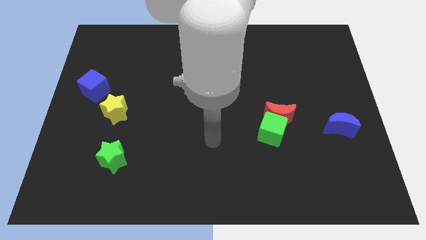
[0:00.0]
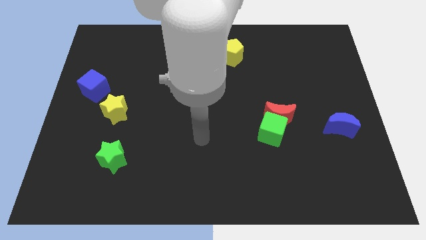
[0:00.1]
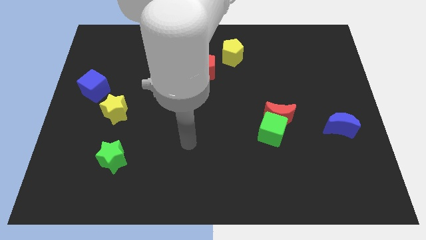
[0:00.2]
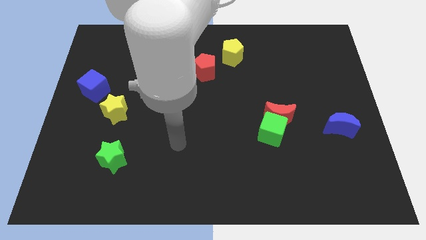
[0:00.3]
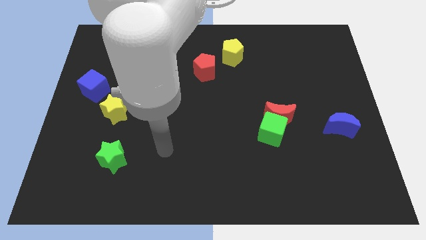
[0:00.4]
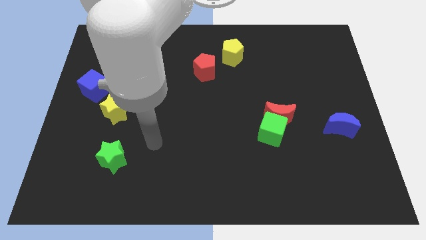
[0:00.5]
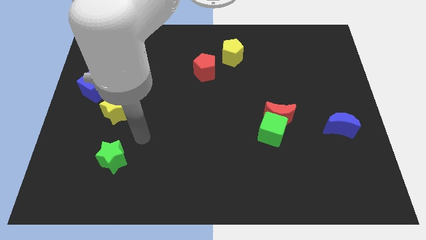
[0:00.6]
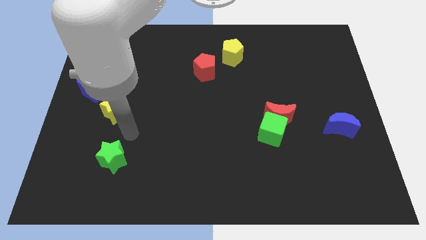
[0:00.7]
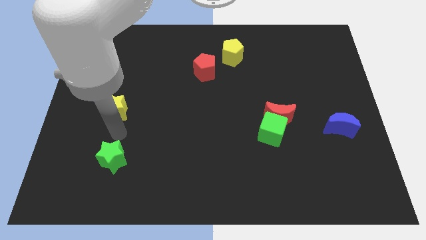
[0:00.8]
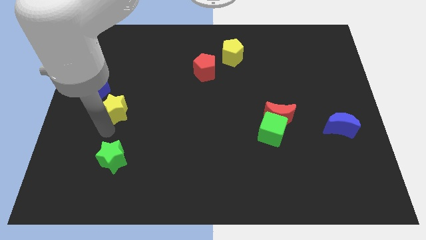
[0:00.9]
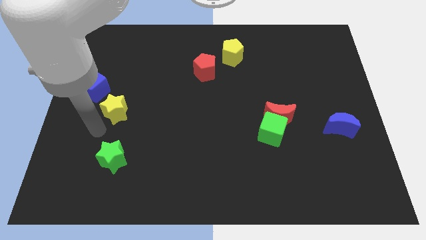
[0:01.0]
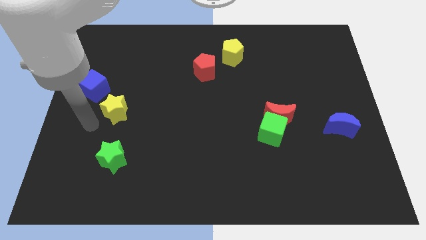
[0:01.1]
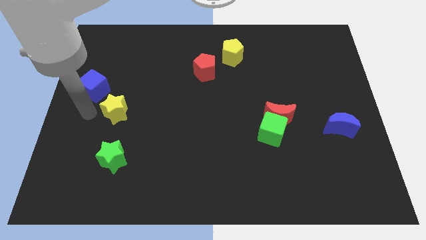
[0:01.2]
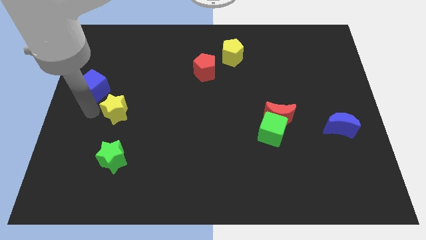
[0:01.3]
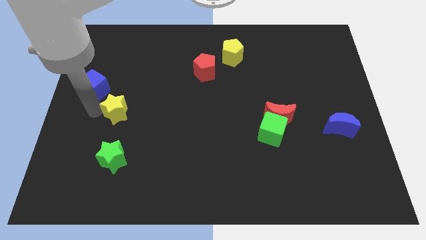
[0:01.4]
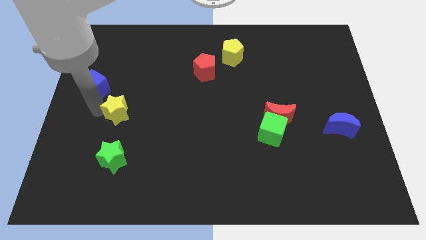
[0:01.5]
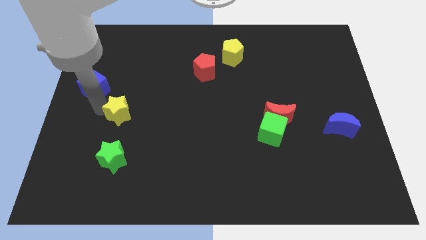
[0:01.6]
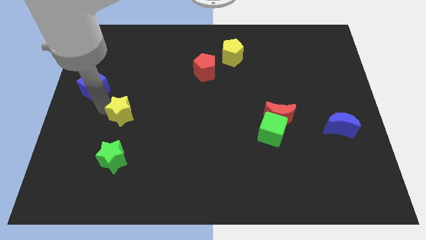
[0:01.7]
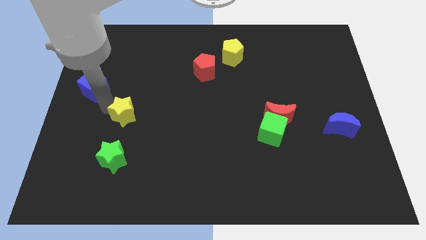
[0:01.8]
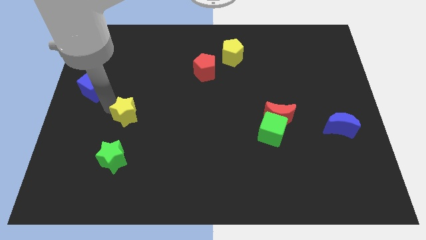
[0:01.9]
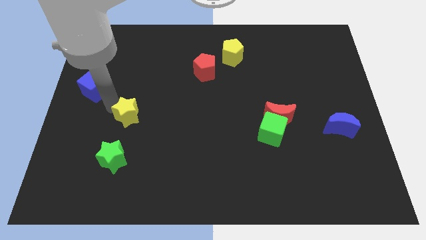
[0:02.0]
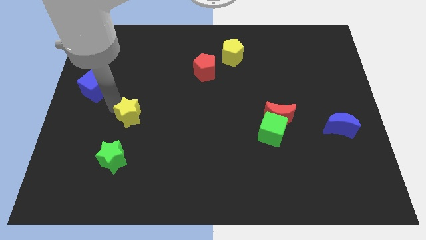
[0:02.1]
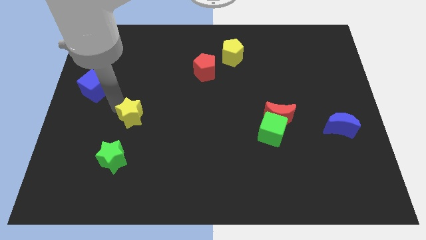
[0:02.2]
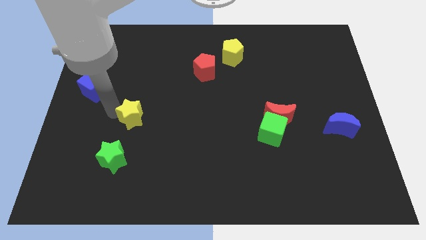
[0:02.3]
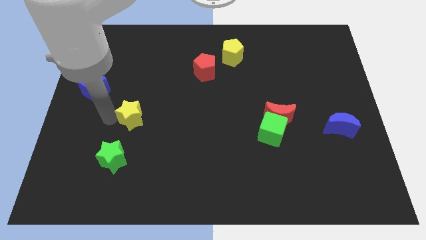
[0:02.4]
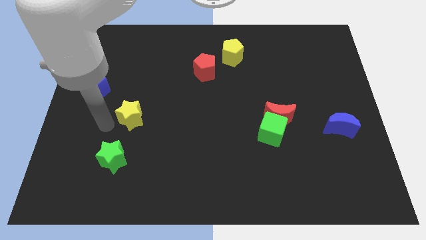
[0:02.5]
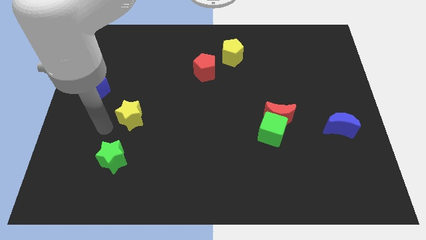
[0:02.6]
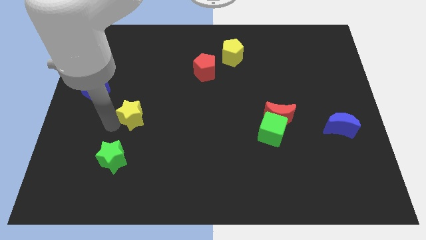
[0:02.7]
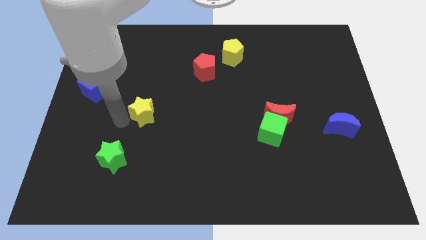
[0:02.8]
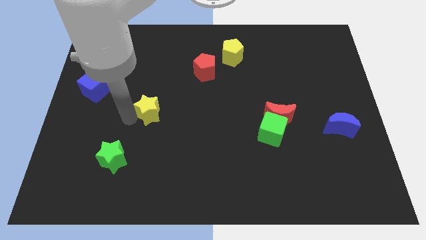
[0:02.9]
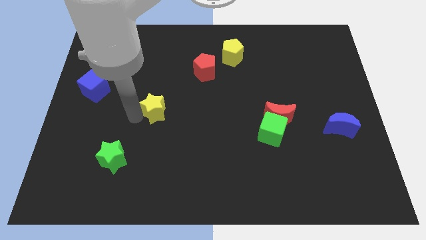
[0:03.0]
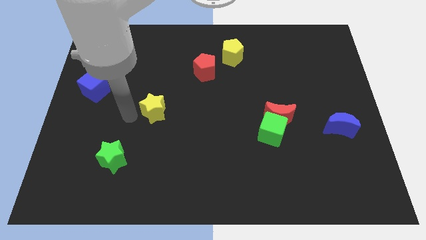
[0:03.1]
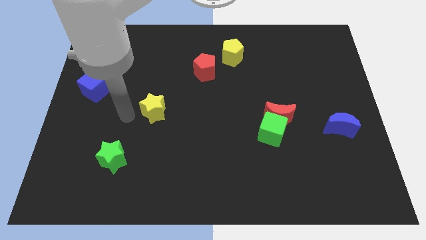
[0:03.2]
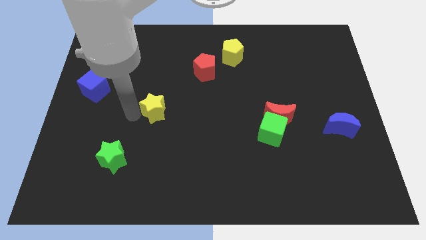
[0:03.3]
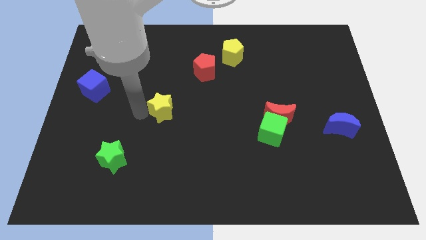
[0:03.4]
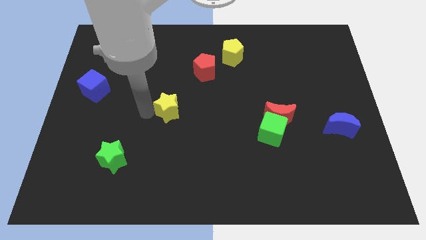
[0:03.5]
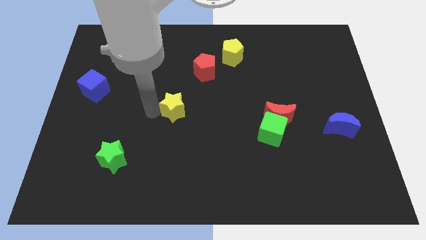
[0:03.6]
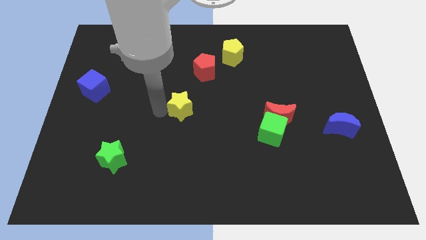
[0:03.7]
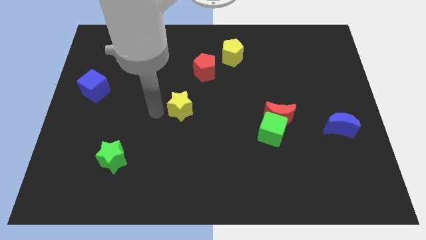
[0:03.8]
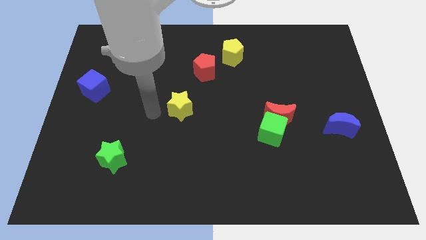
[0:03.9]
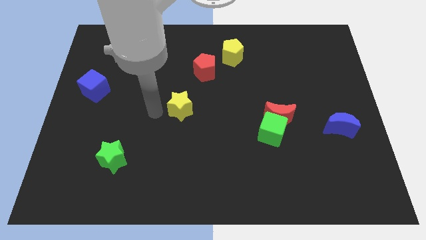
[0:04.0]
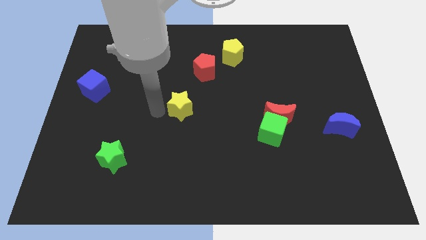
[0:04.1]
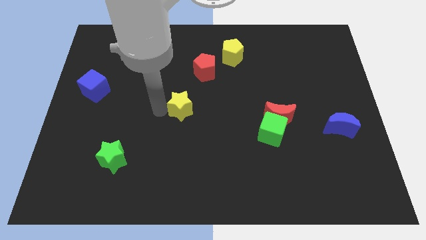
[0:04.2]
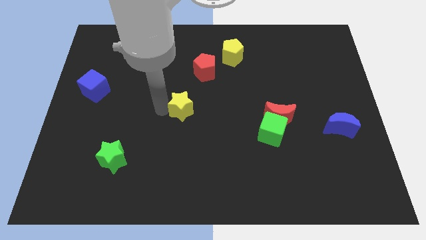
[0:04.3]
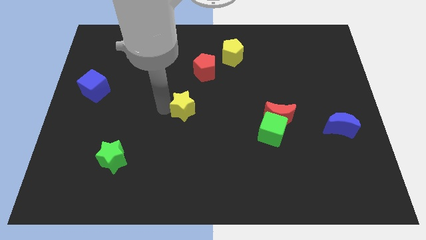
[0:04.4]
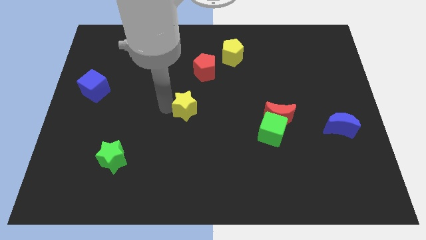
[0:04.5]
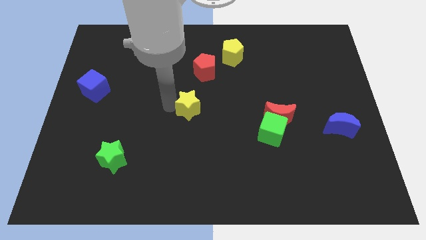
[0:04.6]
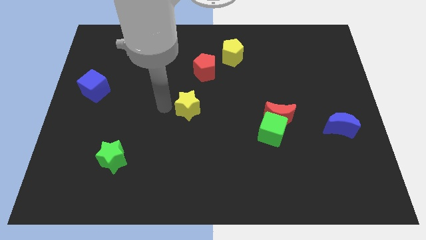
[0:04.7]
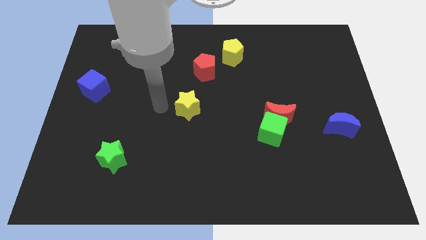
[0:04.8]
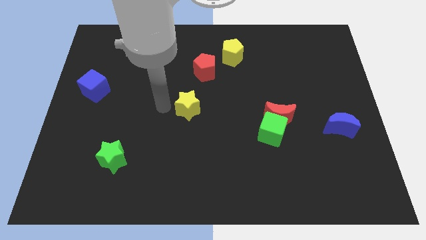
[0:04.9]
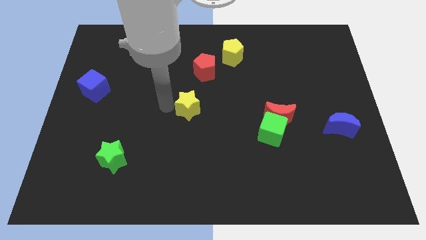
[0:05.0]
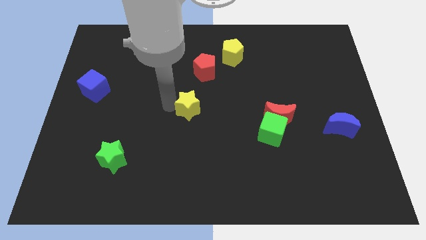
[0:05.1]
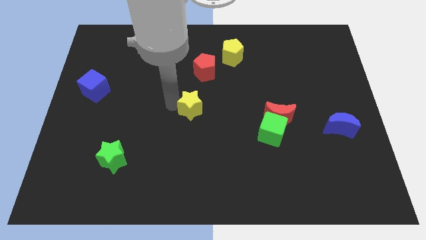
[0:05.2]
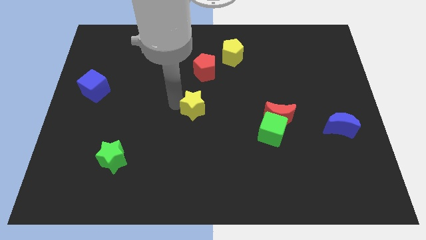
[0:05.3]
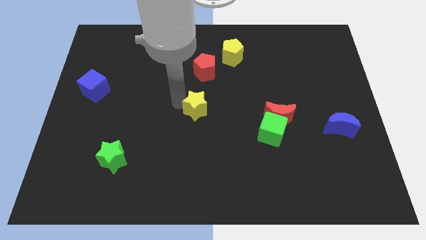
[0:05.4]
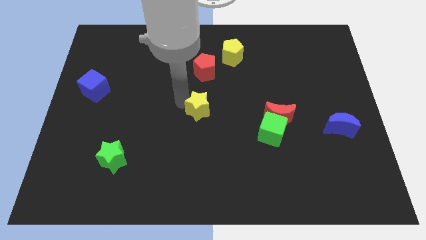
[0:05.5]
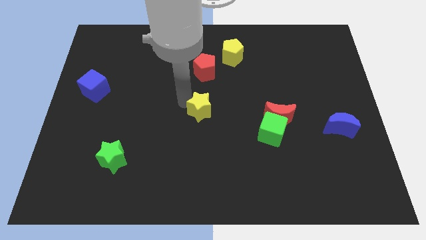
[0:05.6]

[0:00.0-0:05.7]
move the yellow star right

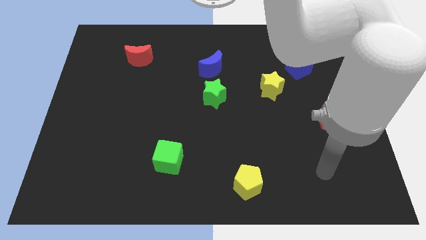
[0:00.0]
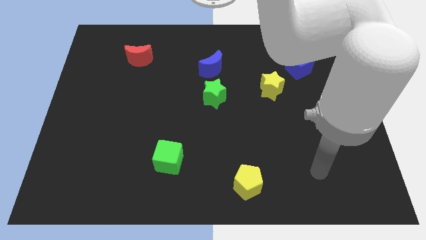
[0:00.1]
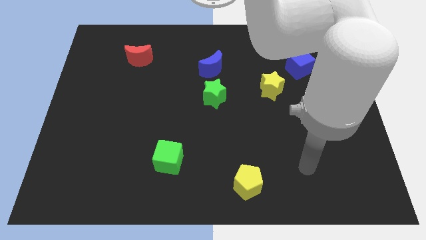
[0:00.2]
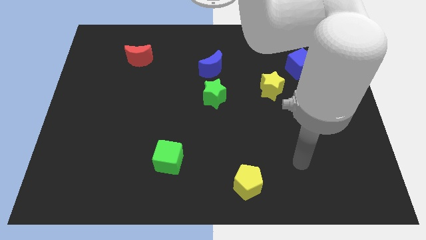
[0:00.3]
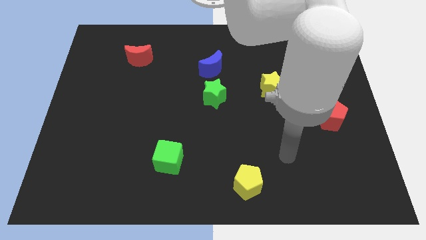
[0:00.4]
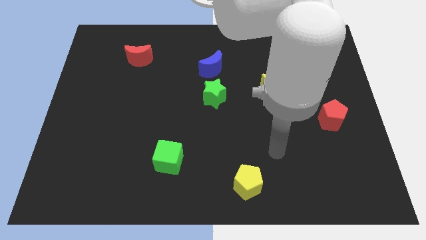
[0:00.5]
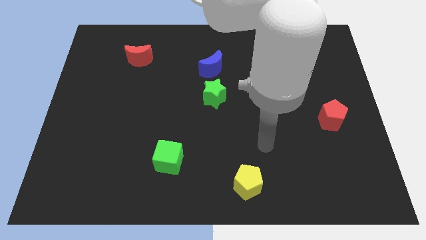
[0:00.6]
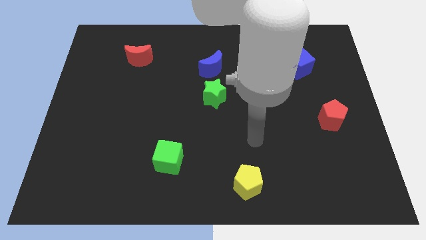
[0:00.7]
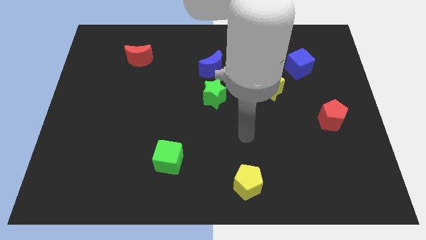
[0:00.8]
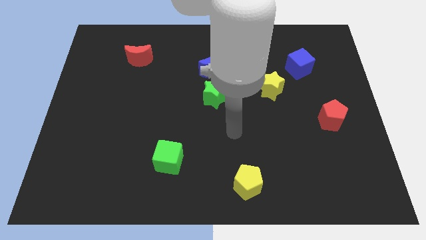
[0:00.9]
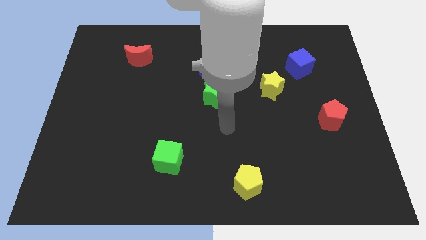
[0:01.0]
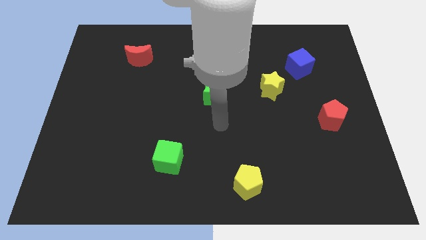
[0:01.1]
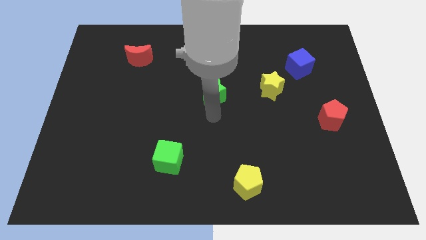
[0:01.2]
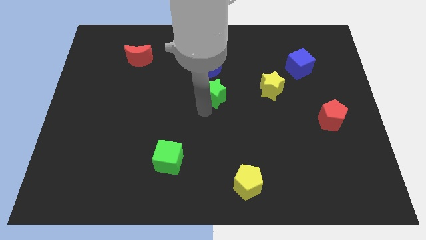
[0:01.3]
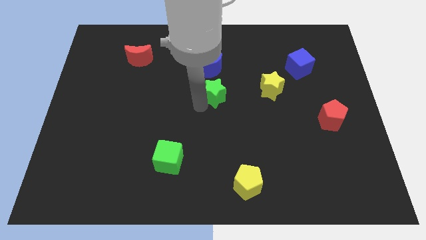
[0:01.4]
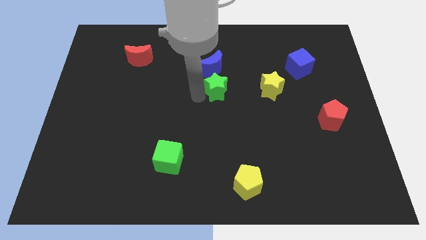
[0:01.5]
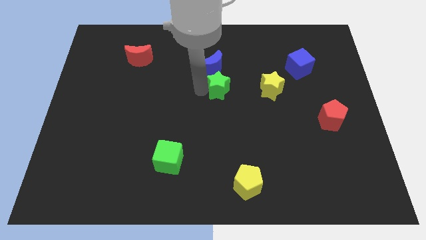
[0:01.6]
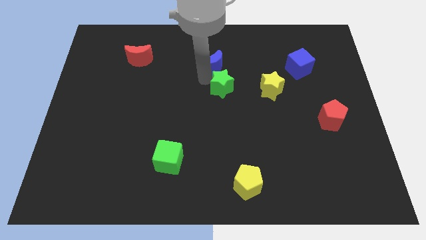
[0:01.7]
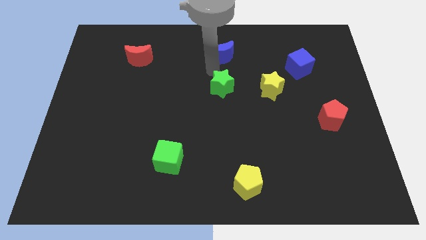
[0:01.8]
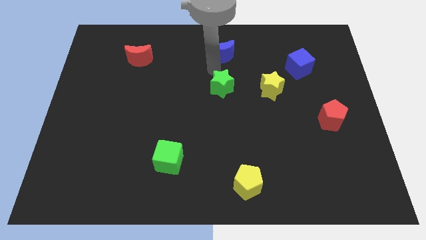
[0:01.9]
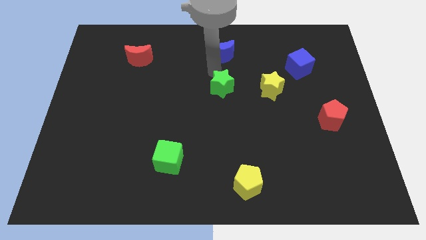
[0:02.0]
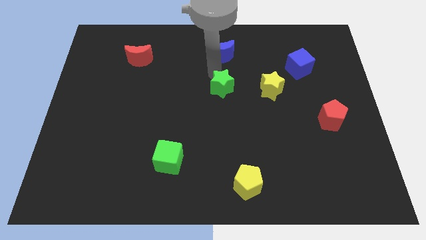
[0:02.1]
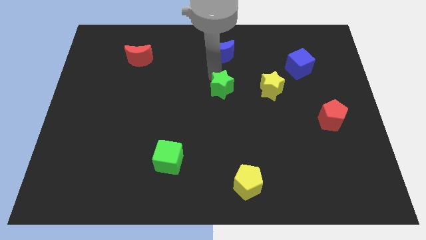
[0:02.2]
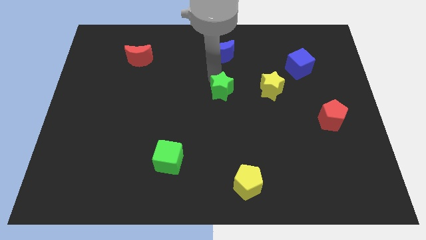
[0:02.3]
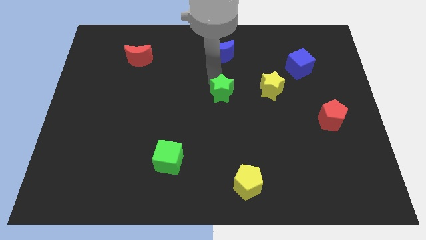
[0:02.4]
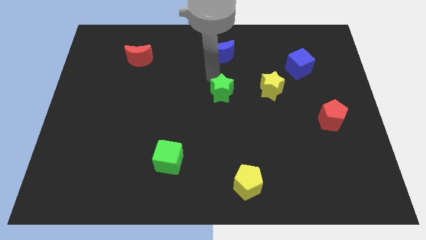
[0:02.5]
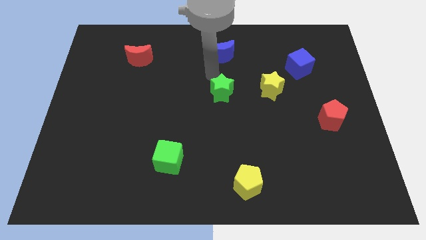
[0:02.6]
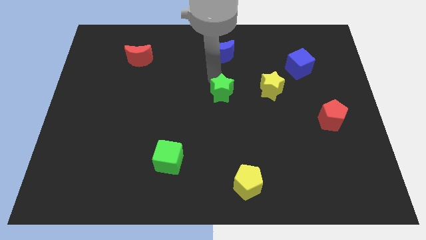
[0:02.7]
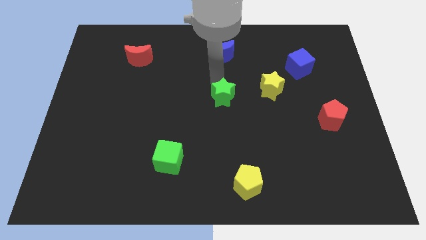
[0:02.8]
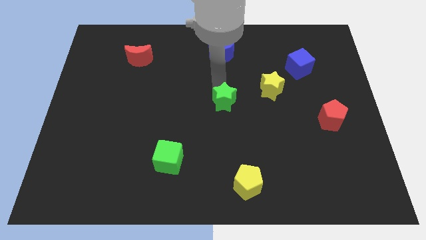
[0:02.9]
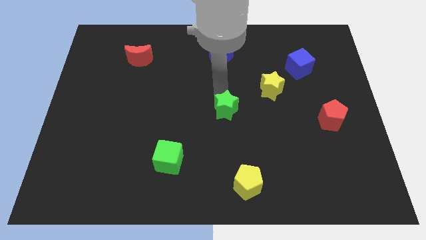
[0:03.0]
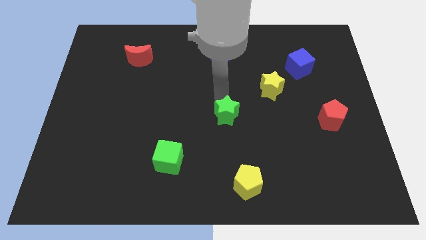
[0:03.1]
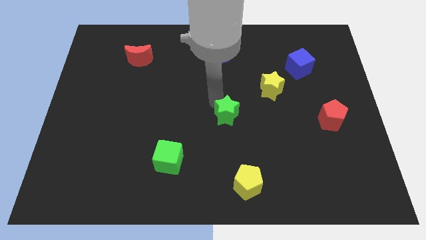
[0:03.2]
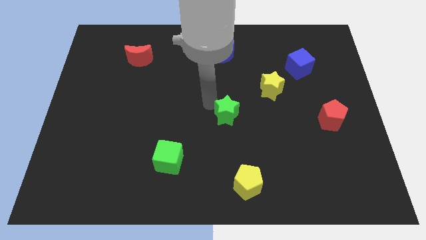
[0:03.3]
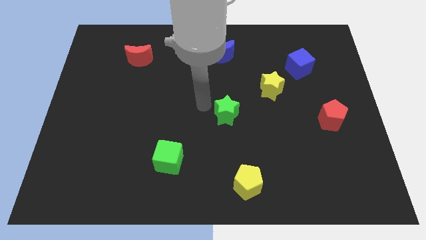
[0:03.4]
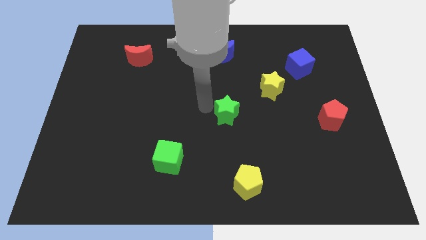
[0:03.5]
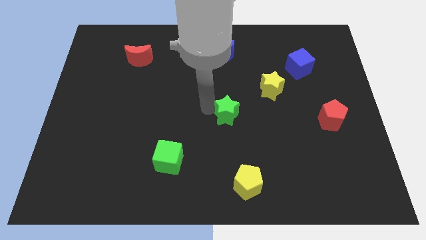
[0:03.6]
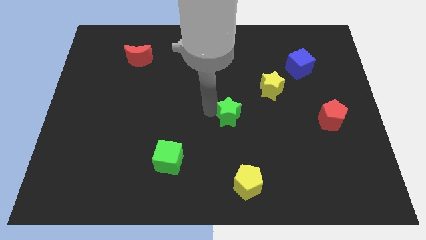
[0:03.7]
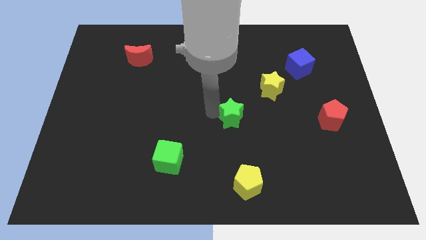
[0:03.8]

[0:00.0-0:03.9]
push the green star down and then right slightly
